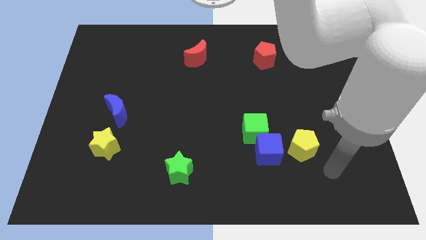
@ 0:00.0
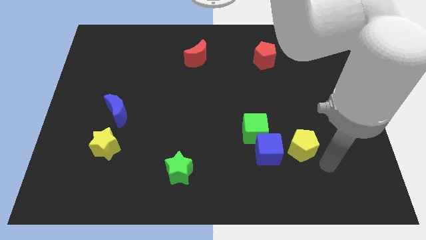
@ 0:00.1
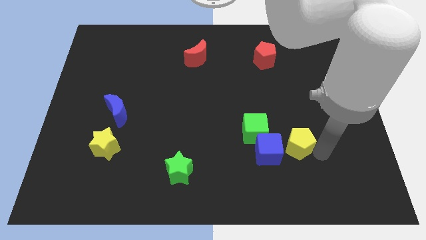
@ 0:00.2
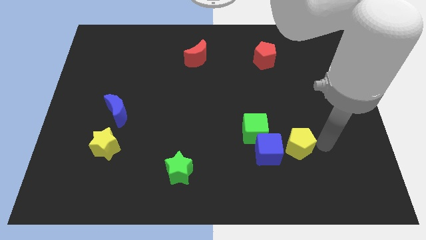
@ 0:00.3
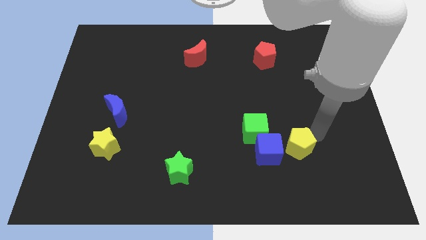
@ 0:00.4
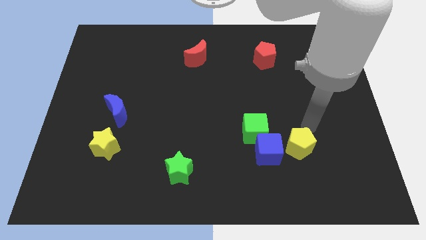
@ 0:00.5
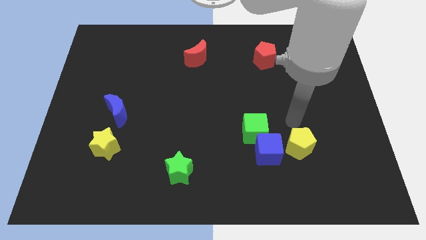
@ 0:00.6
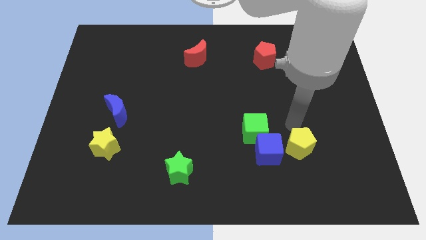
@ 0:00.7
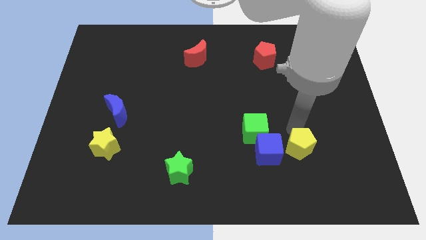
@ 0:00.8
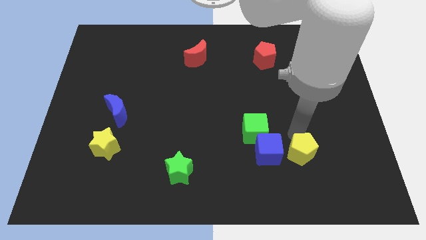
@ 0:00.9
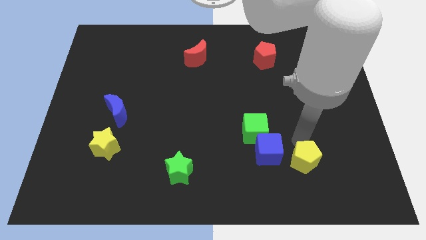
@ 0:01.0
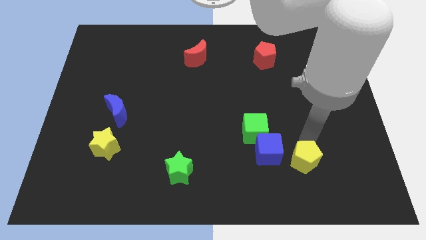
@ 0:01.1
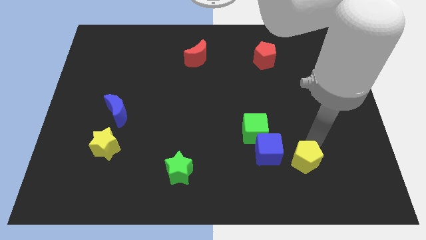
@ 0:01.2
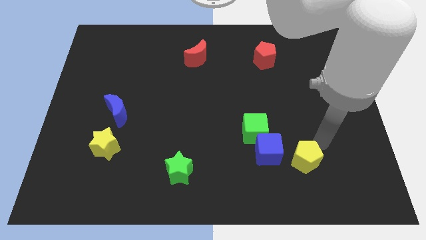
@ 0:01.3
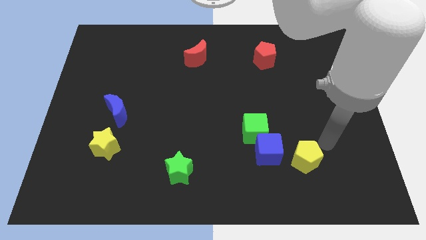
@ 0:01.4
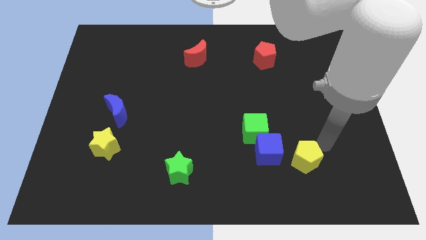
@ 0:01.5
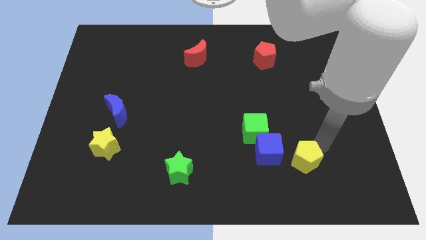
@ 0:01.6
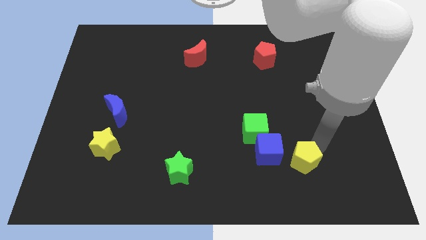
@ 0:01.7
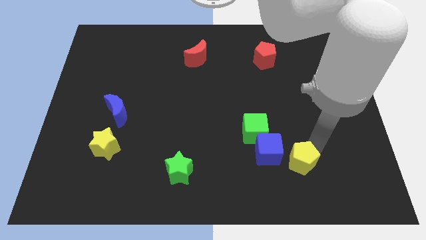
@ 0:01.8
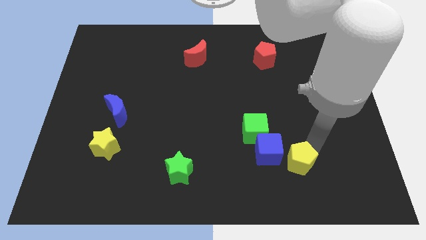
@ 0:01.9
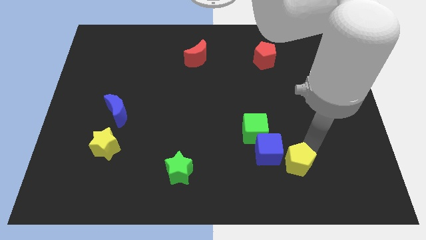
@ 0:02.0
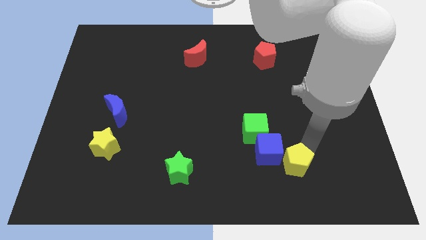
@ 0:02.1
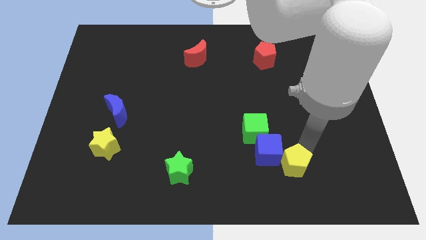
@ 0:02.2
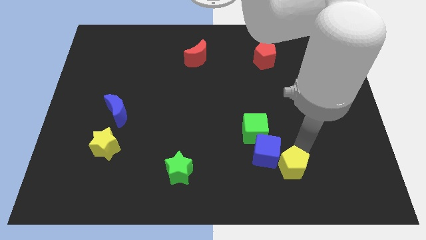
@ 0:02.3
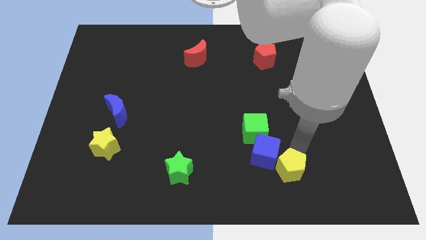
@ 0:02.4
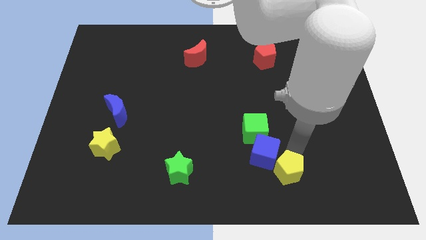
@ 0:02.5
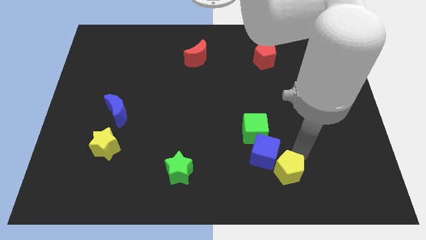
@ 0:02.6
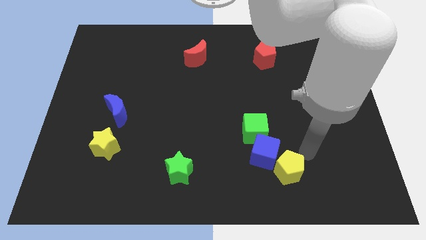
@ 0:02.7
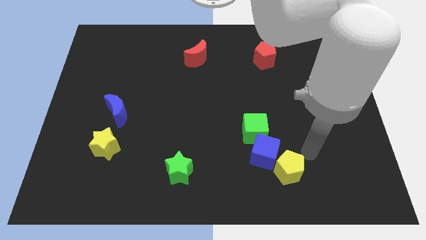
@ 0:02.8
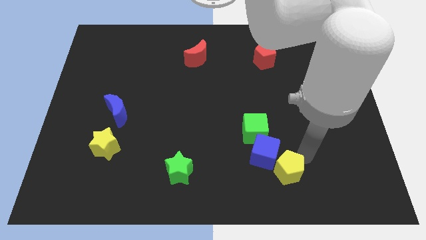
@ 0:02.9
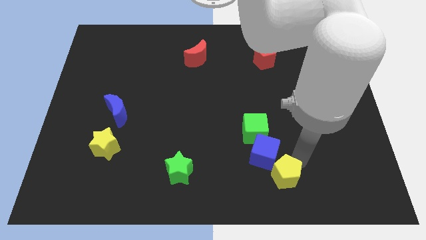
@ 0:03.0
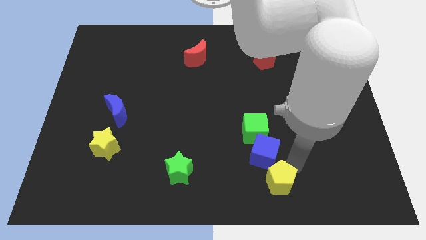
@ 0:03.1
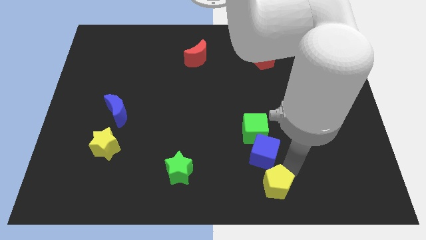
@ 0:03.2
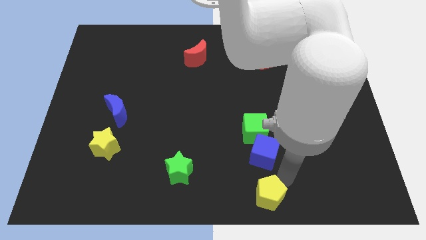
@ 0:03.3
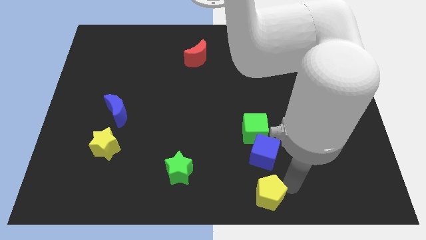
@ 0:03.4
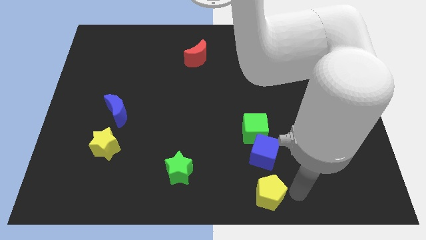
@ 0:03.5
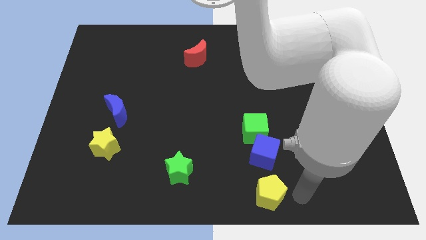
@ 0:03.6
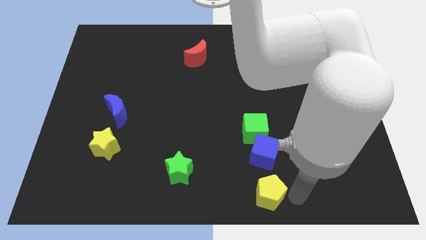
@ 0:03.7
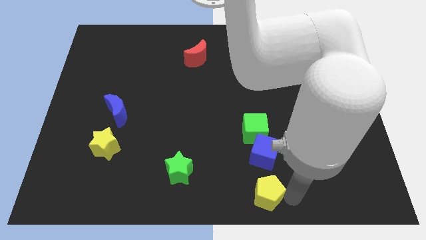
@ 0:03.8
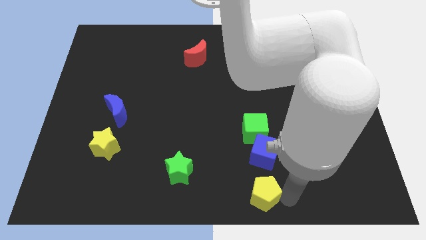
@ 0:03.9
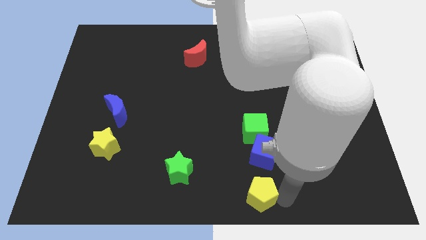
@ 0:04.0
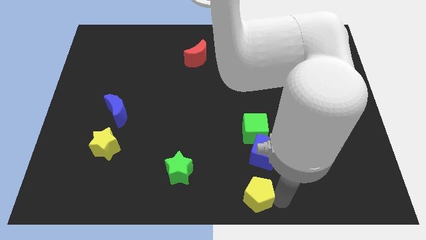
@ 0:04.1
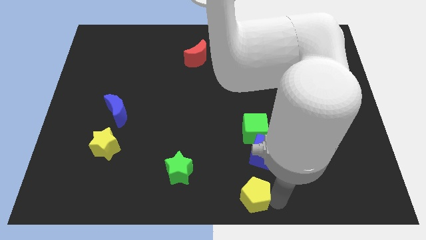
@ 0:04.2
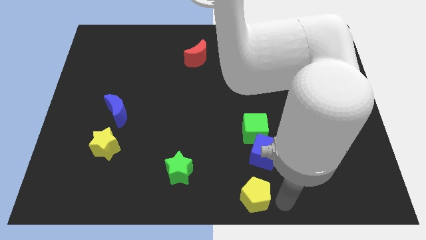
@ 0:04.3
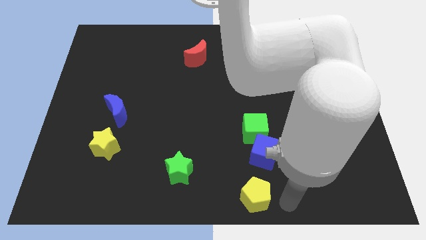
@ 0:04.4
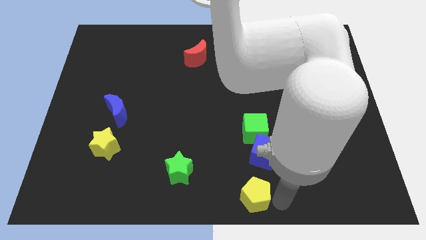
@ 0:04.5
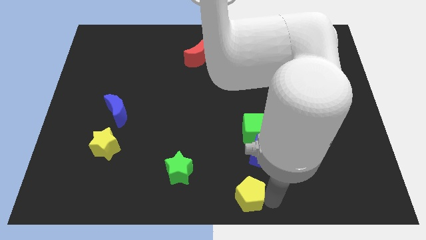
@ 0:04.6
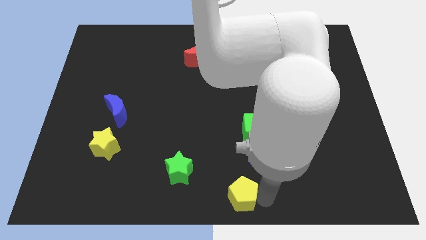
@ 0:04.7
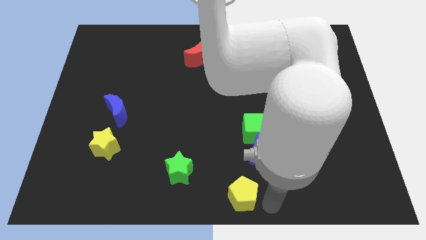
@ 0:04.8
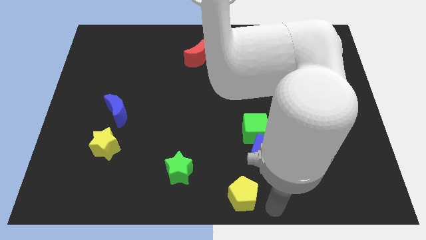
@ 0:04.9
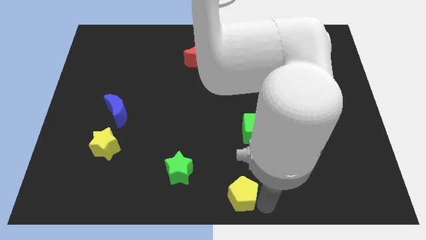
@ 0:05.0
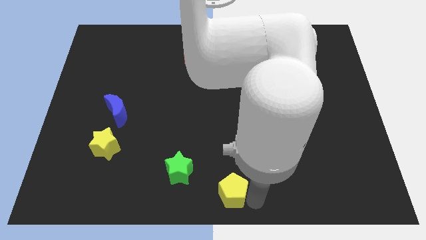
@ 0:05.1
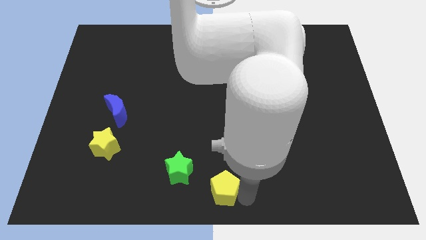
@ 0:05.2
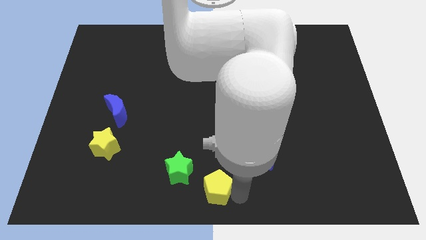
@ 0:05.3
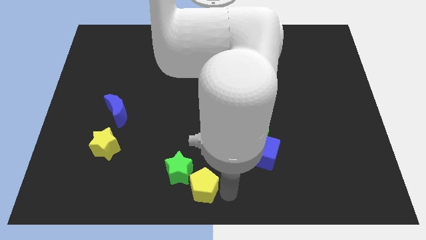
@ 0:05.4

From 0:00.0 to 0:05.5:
put the yellow pentagon close to the green star

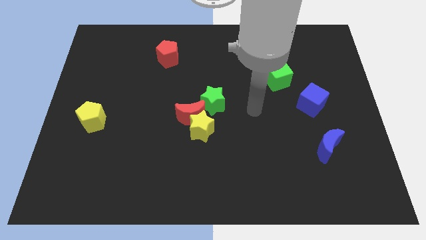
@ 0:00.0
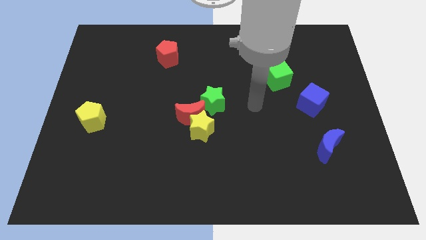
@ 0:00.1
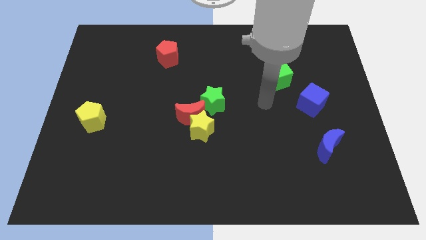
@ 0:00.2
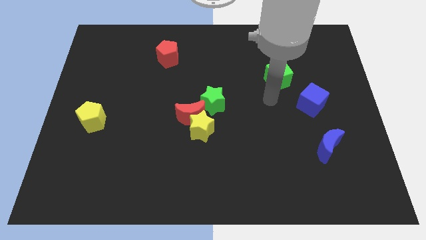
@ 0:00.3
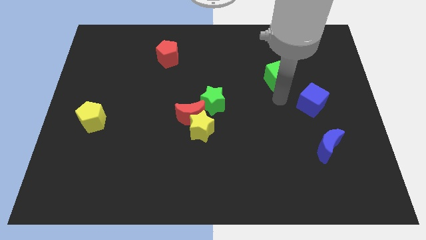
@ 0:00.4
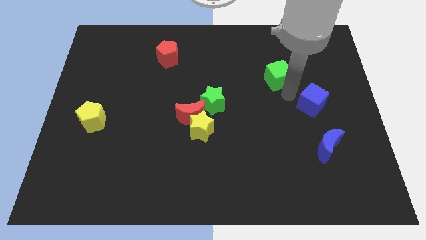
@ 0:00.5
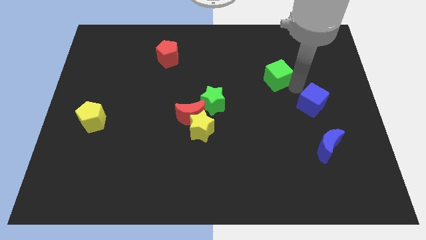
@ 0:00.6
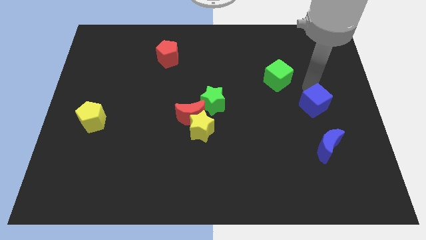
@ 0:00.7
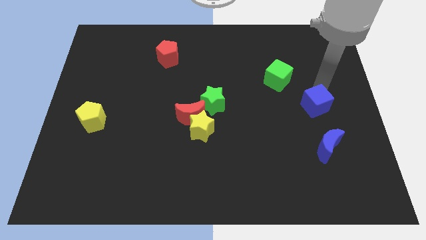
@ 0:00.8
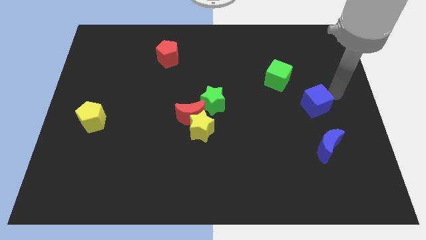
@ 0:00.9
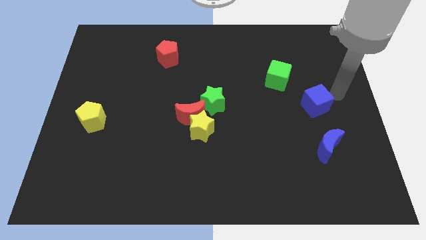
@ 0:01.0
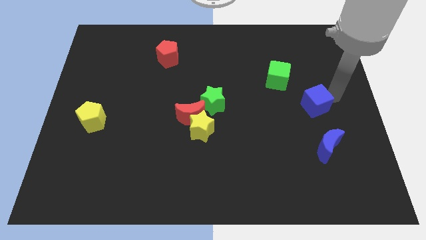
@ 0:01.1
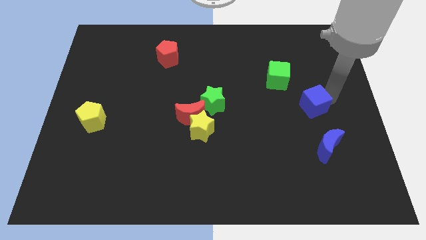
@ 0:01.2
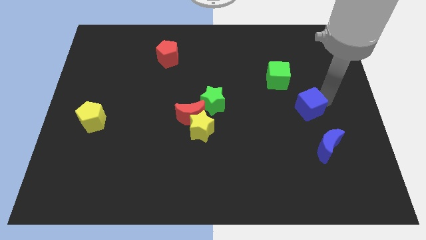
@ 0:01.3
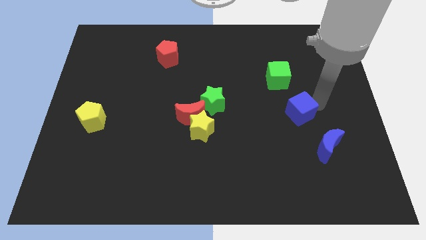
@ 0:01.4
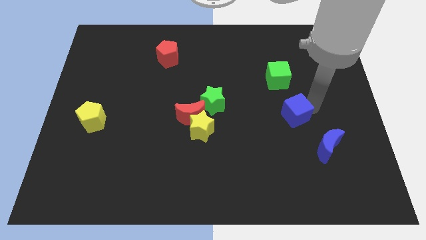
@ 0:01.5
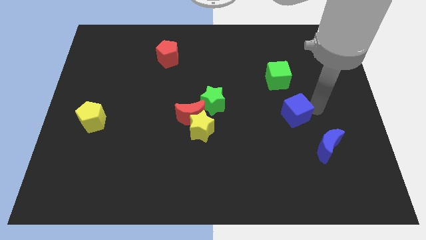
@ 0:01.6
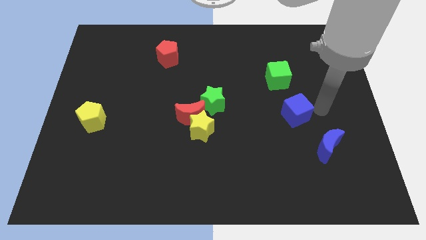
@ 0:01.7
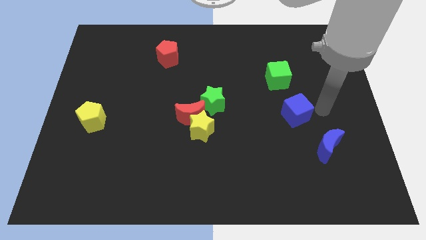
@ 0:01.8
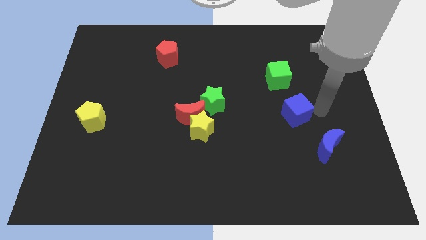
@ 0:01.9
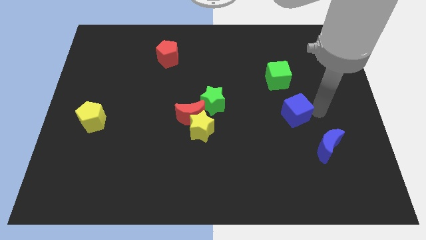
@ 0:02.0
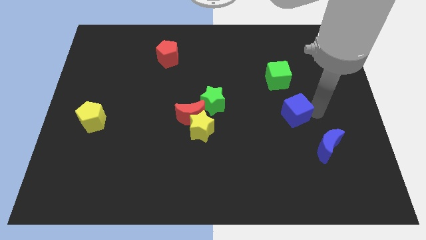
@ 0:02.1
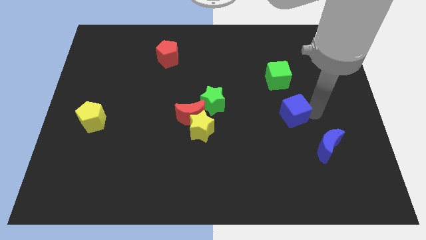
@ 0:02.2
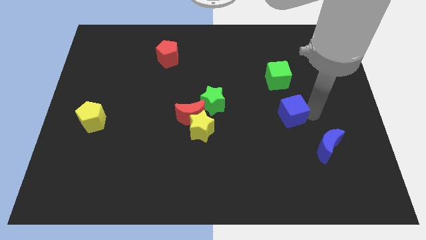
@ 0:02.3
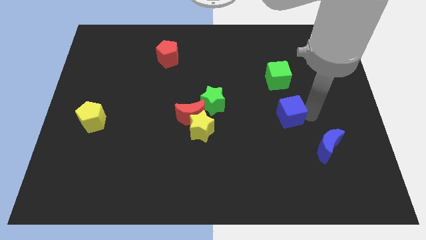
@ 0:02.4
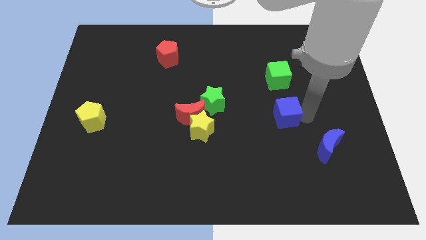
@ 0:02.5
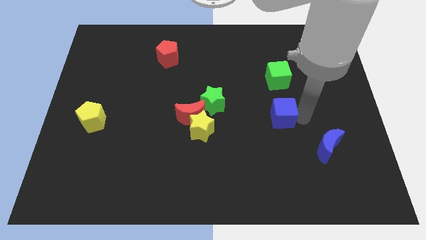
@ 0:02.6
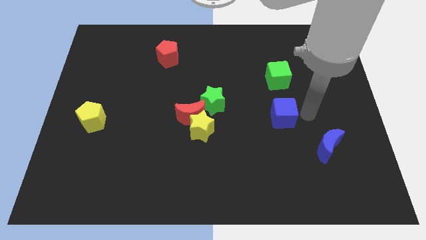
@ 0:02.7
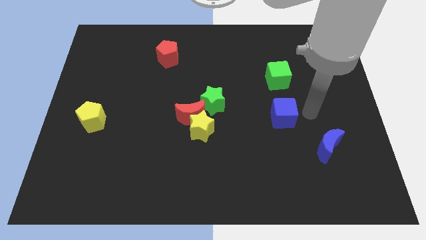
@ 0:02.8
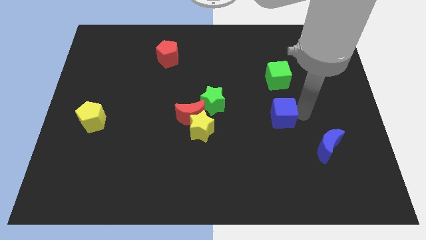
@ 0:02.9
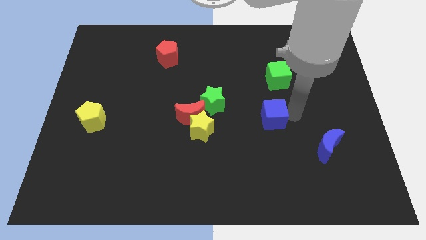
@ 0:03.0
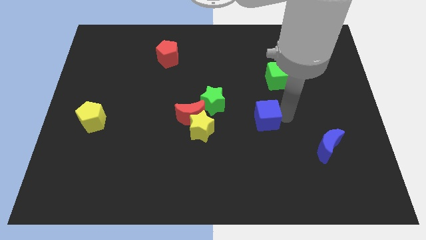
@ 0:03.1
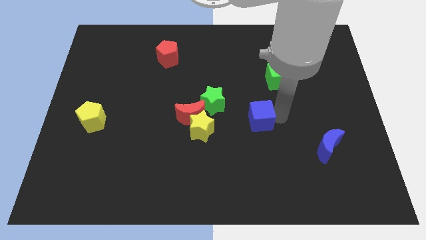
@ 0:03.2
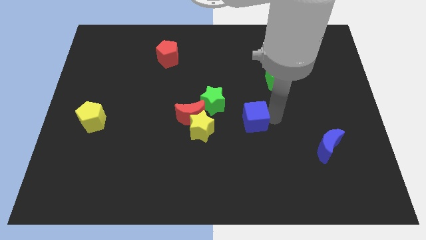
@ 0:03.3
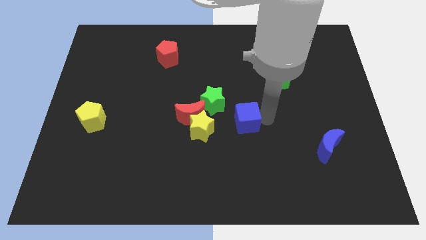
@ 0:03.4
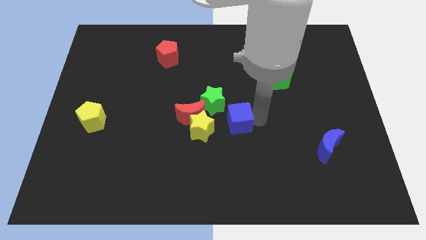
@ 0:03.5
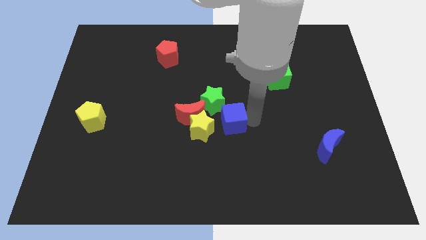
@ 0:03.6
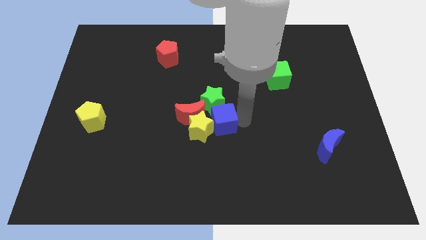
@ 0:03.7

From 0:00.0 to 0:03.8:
push the blue cube to the yellow star
